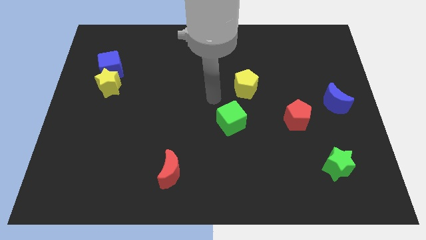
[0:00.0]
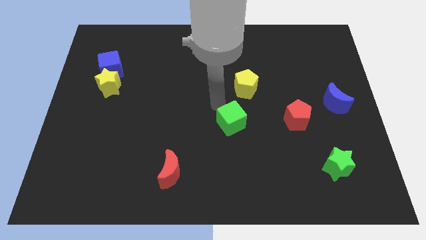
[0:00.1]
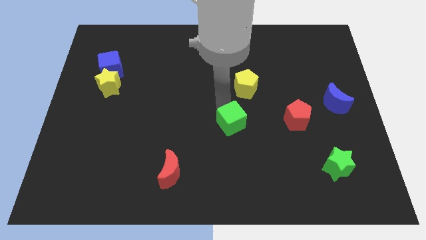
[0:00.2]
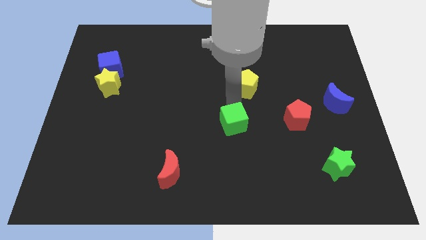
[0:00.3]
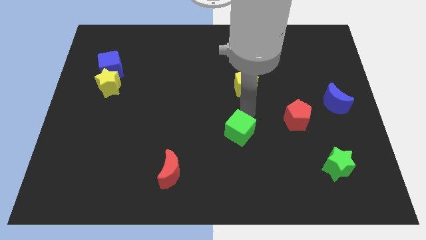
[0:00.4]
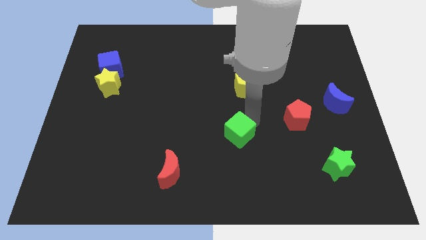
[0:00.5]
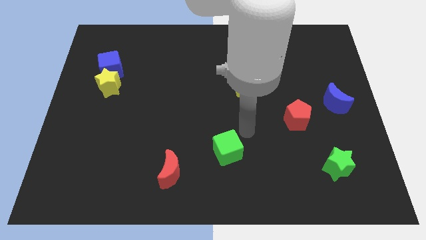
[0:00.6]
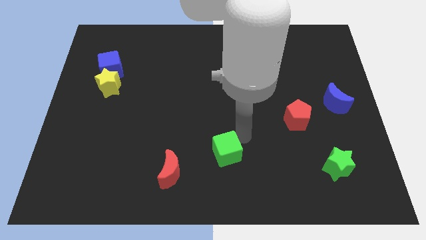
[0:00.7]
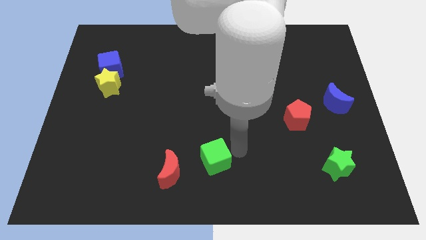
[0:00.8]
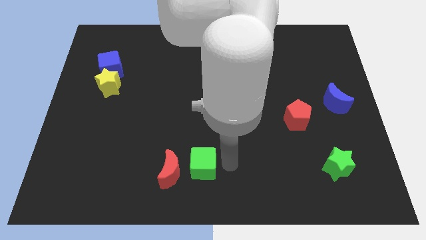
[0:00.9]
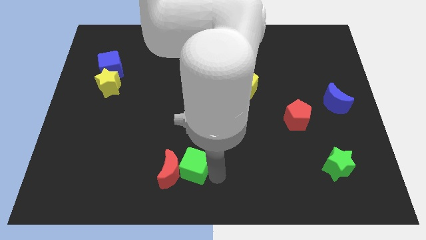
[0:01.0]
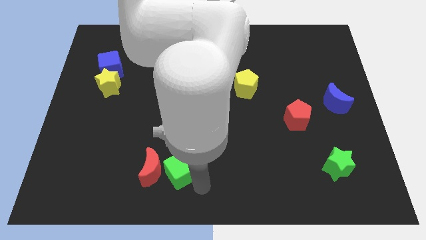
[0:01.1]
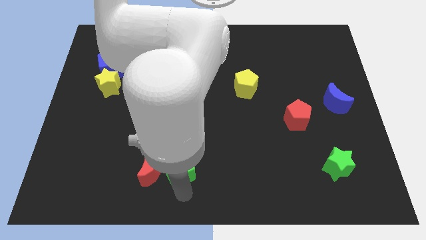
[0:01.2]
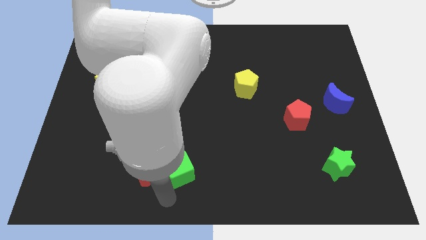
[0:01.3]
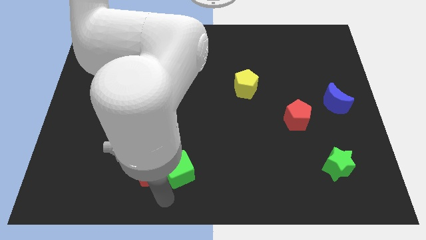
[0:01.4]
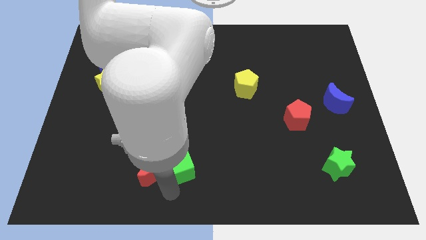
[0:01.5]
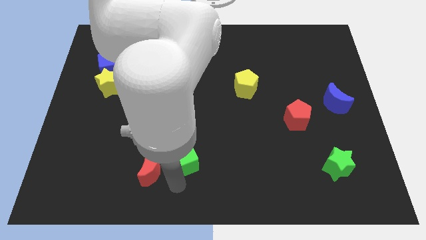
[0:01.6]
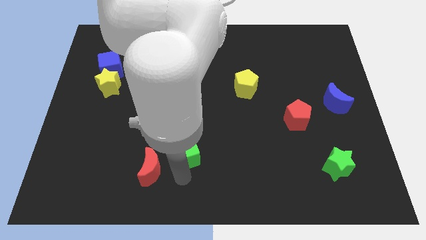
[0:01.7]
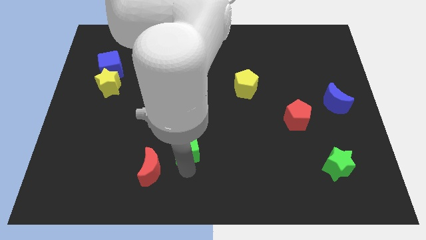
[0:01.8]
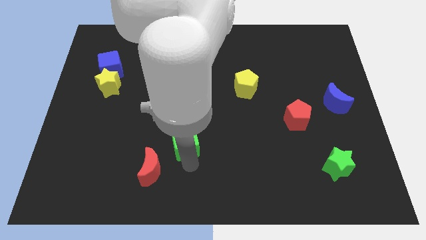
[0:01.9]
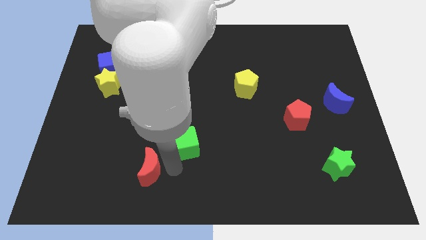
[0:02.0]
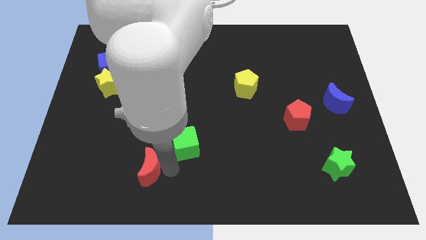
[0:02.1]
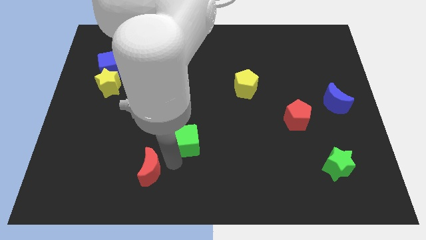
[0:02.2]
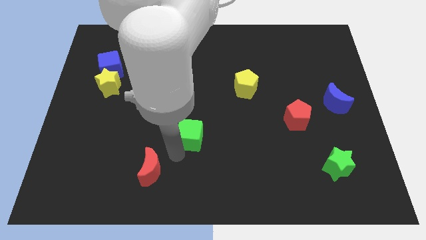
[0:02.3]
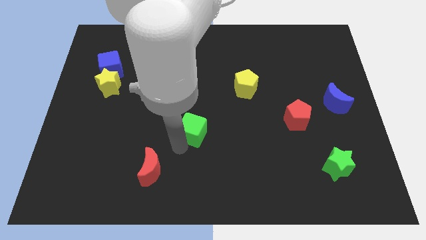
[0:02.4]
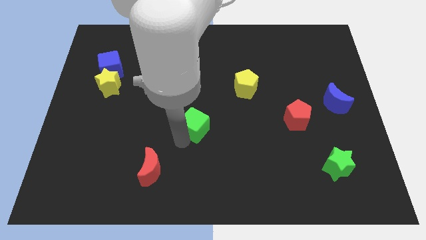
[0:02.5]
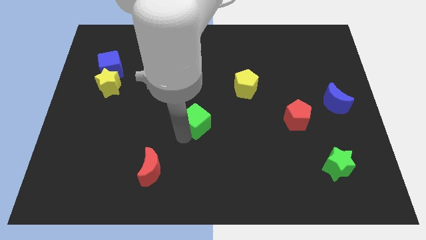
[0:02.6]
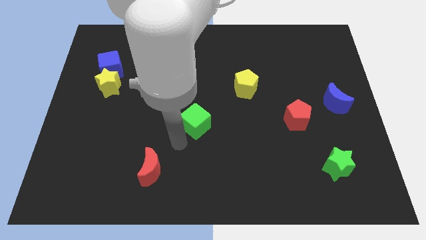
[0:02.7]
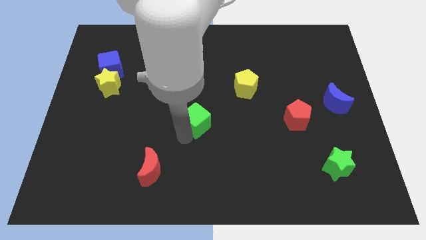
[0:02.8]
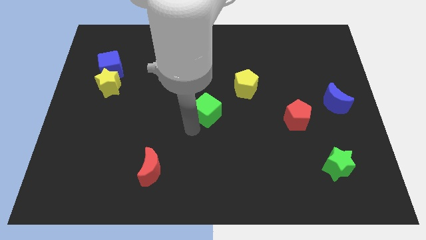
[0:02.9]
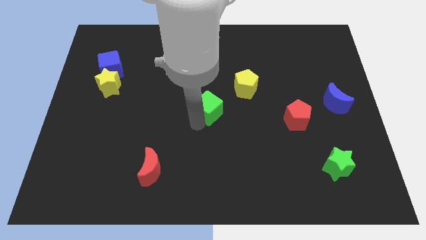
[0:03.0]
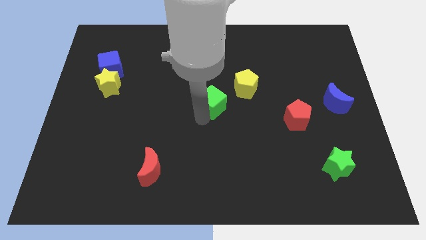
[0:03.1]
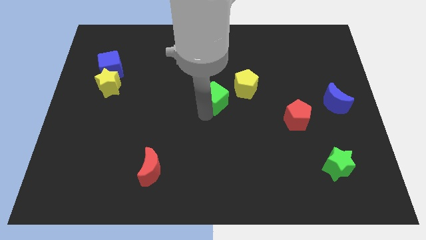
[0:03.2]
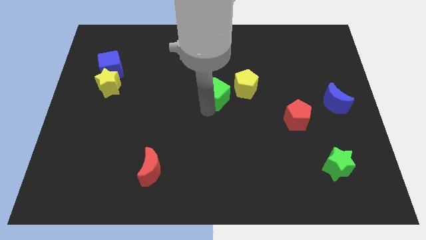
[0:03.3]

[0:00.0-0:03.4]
slightly slide the green cube upwards

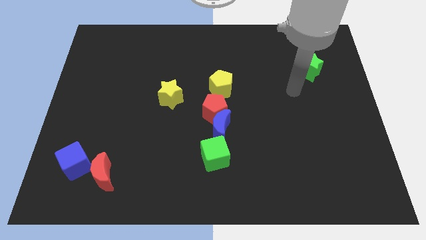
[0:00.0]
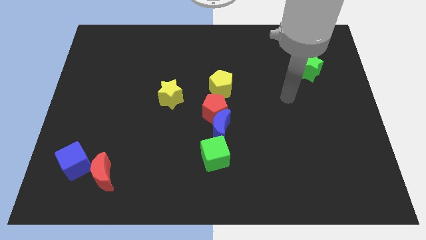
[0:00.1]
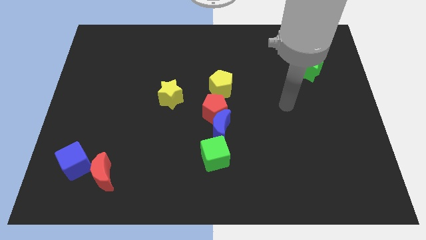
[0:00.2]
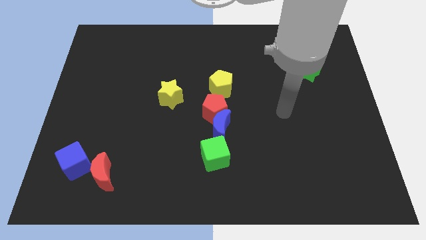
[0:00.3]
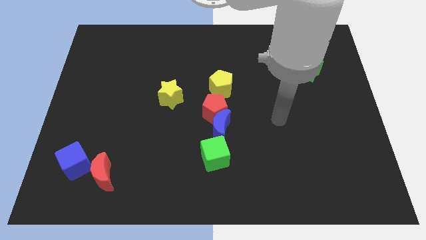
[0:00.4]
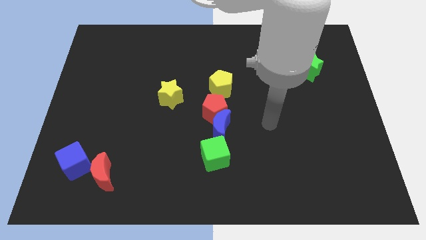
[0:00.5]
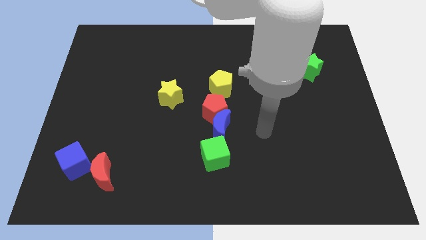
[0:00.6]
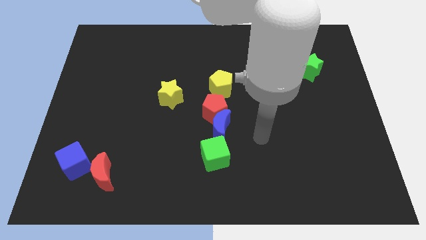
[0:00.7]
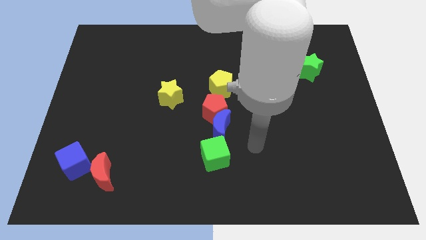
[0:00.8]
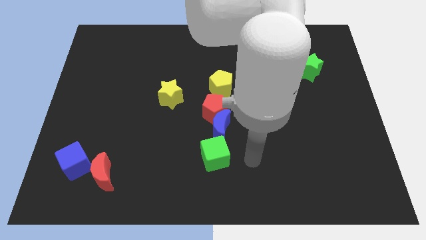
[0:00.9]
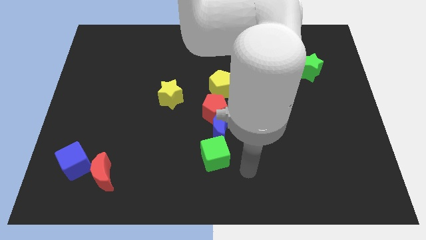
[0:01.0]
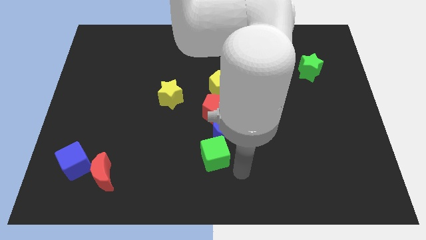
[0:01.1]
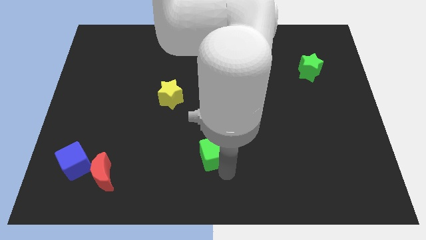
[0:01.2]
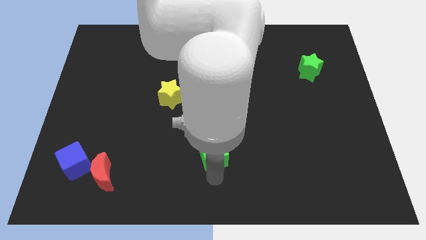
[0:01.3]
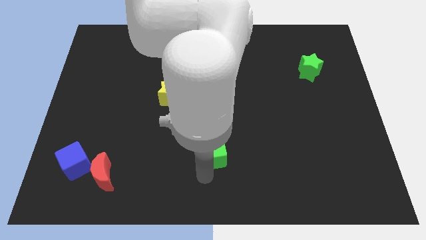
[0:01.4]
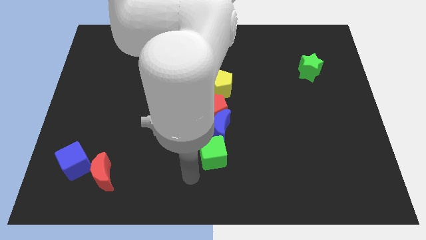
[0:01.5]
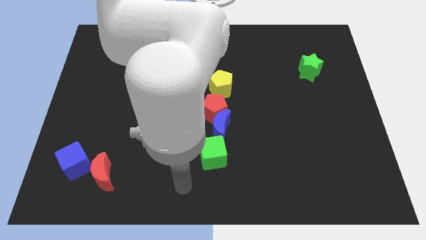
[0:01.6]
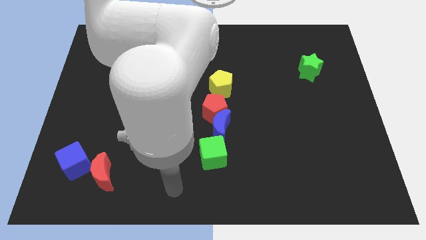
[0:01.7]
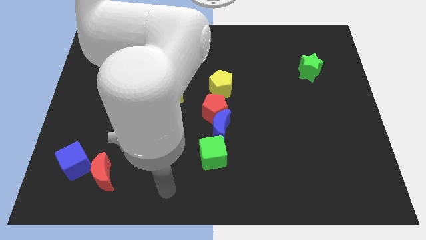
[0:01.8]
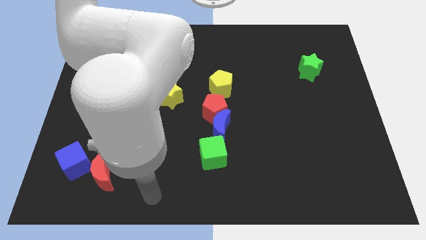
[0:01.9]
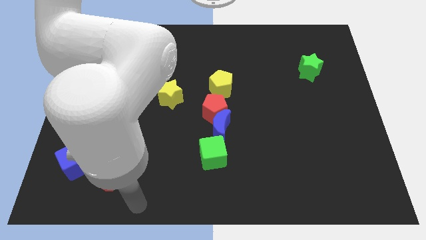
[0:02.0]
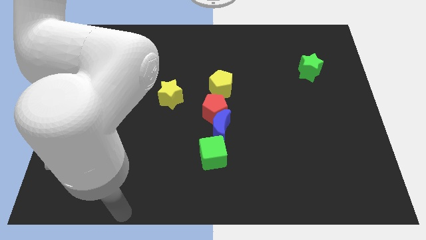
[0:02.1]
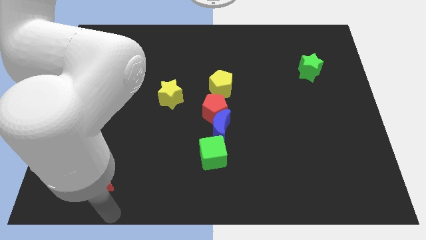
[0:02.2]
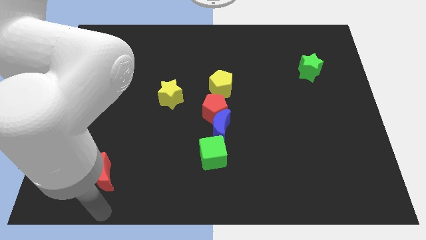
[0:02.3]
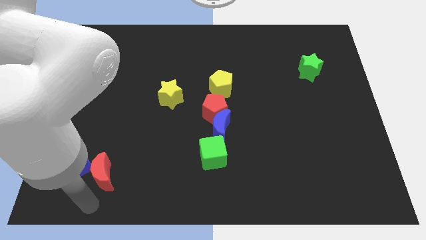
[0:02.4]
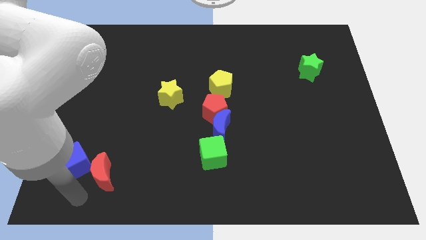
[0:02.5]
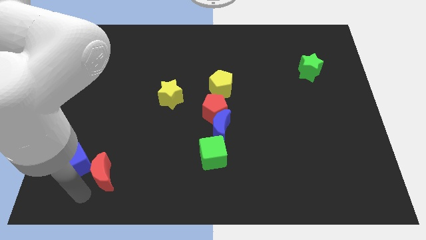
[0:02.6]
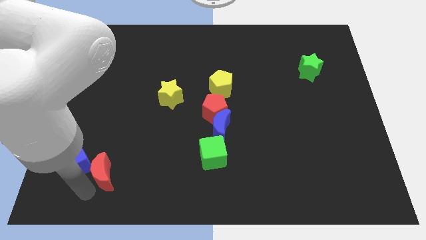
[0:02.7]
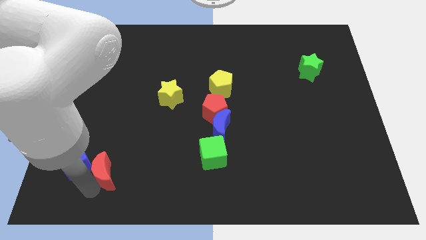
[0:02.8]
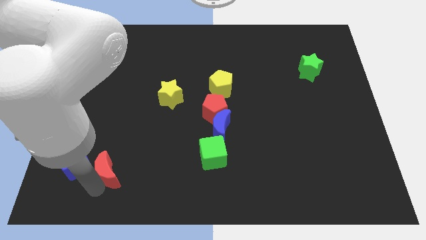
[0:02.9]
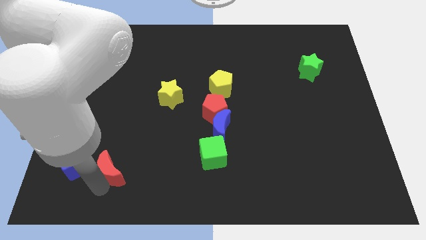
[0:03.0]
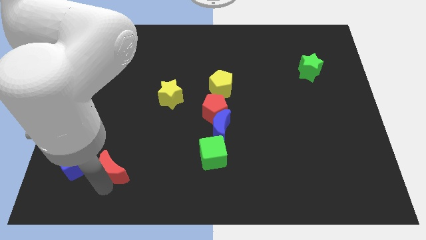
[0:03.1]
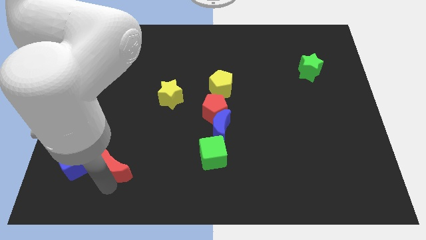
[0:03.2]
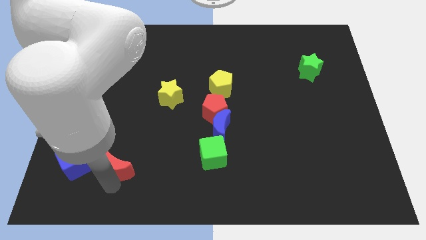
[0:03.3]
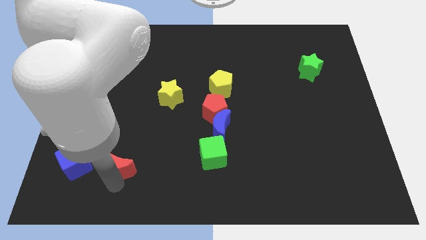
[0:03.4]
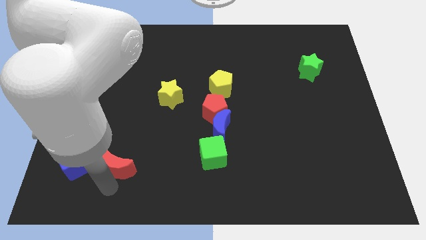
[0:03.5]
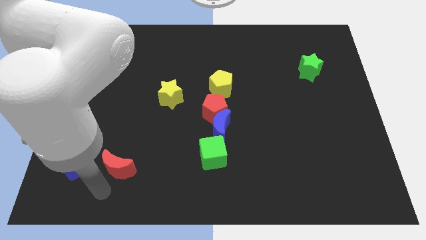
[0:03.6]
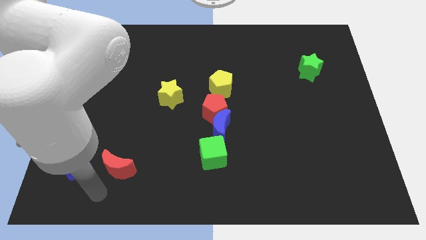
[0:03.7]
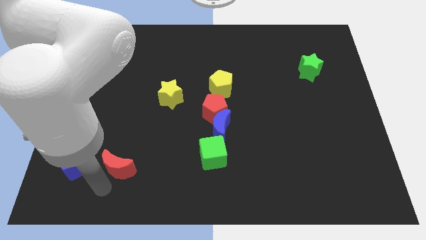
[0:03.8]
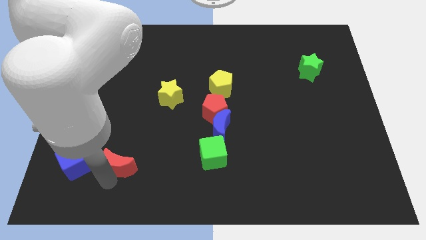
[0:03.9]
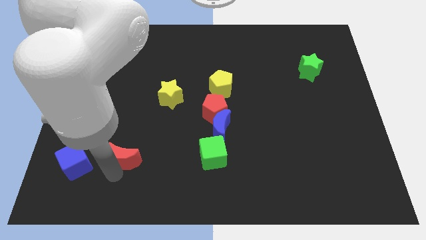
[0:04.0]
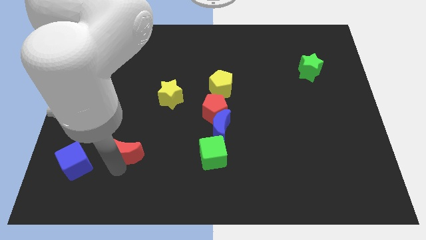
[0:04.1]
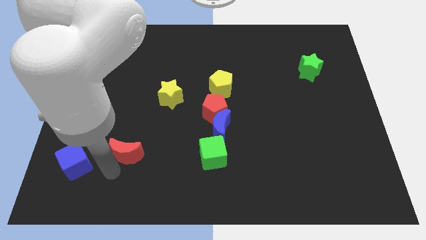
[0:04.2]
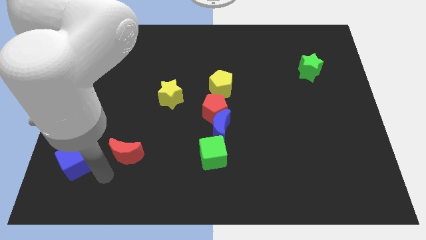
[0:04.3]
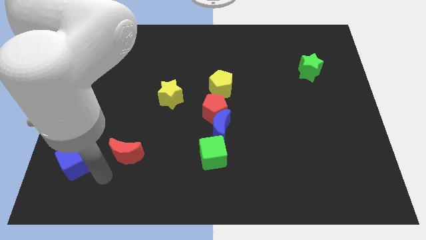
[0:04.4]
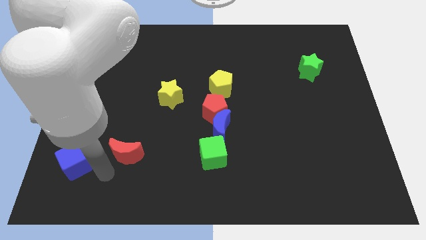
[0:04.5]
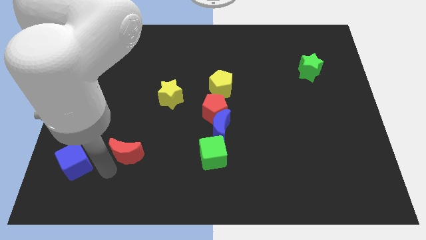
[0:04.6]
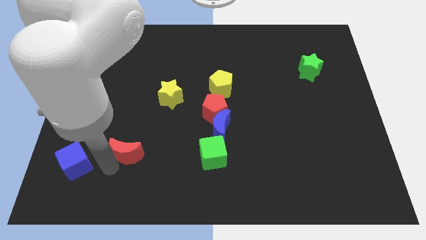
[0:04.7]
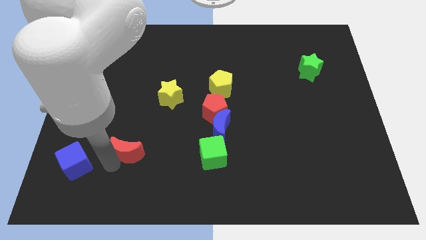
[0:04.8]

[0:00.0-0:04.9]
slide the red moon a bit diagonally up and to the right
